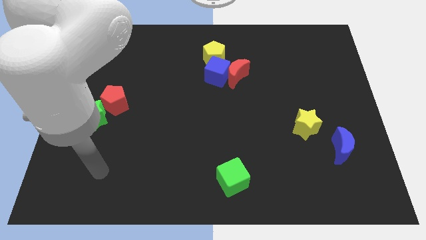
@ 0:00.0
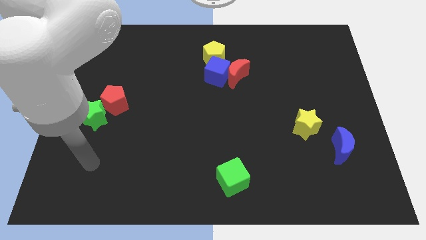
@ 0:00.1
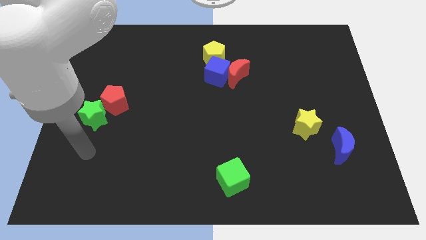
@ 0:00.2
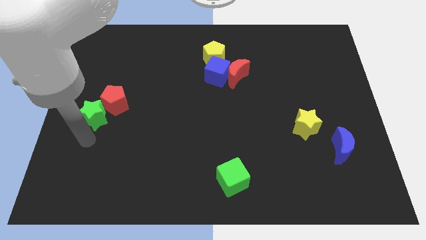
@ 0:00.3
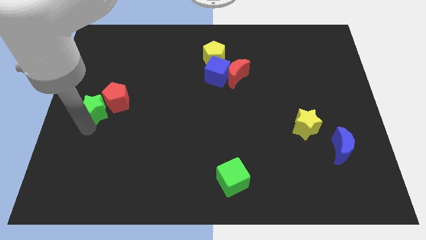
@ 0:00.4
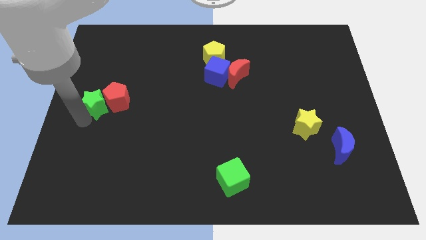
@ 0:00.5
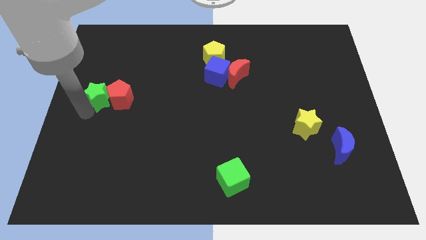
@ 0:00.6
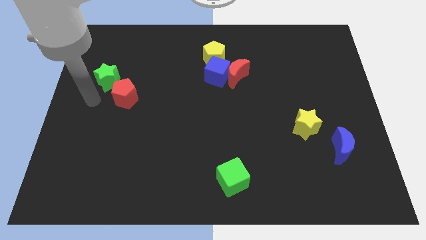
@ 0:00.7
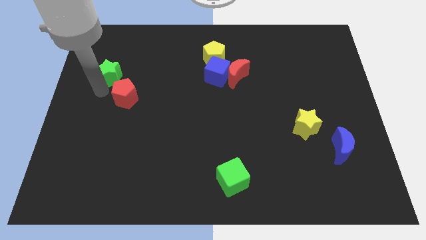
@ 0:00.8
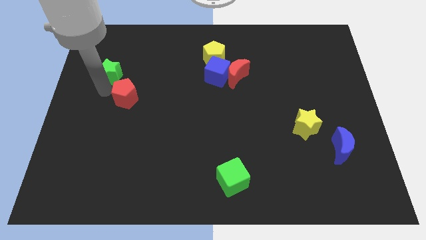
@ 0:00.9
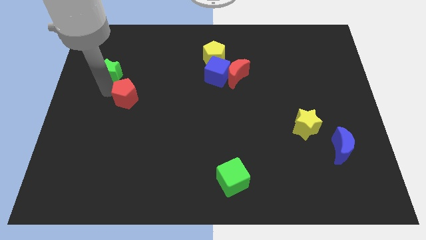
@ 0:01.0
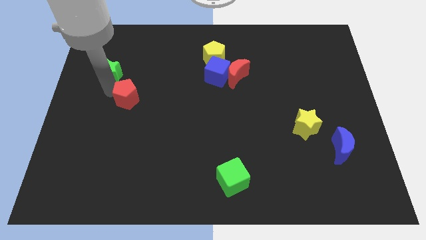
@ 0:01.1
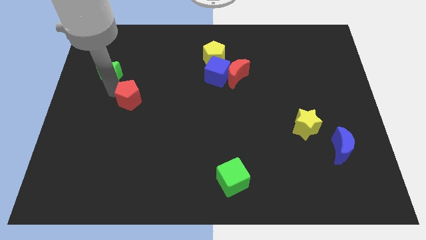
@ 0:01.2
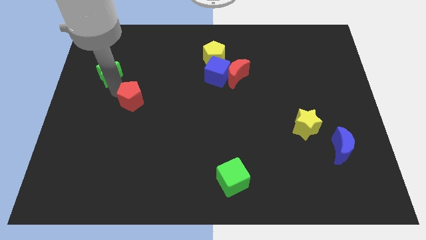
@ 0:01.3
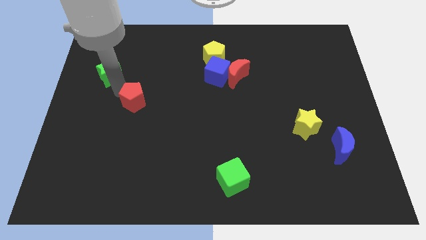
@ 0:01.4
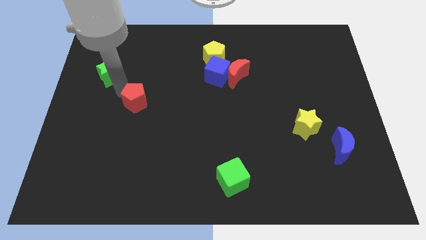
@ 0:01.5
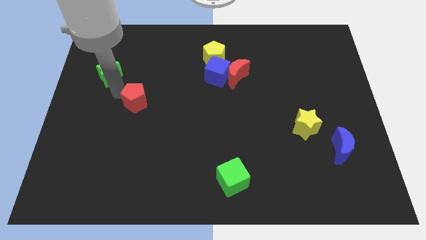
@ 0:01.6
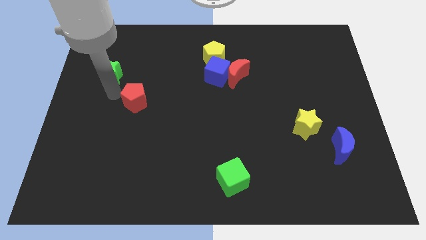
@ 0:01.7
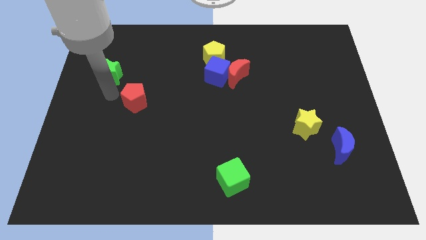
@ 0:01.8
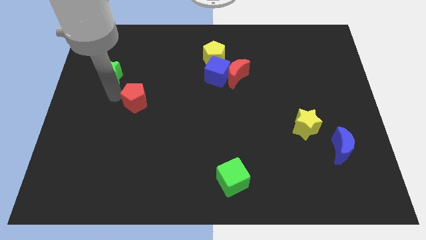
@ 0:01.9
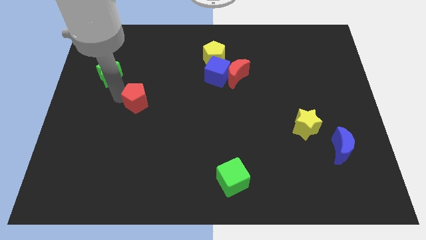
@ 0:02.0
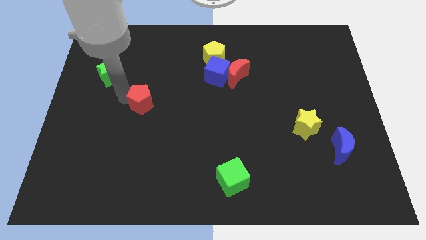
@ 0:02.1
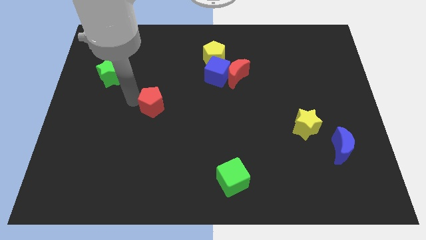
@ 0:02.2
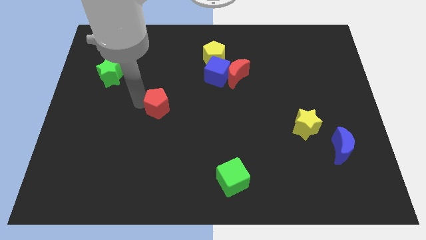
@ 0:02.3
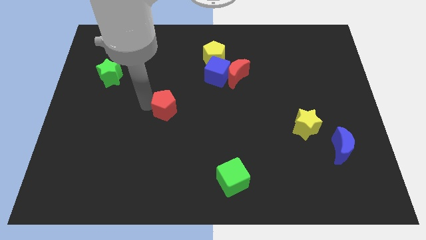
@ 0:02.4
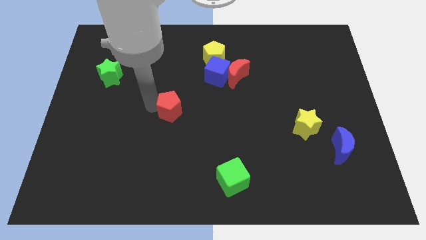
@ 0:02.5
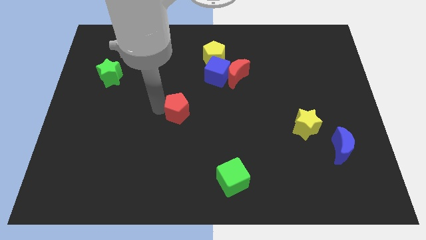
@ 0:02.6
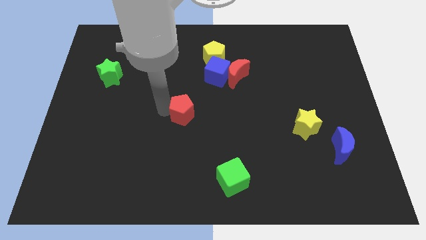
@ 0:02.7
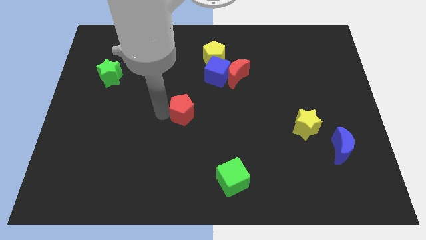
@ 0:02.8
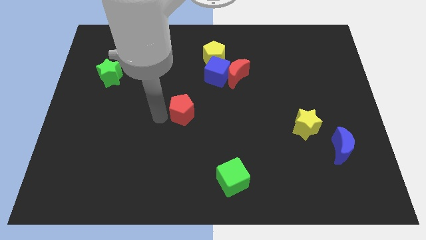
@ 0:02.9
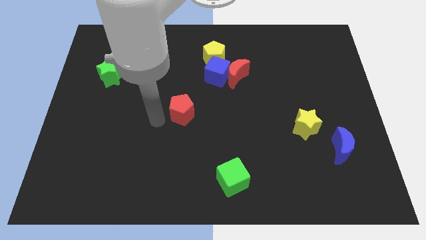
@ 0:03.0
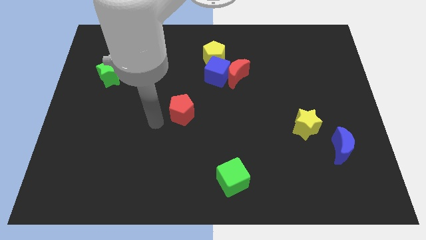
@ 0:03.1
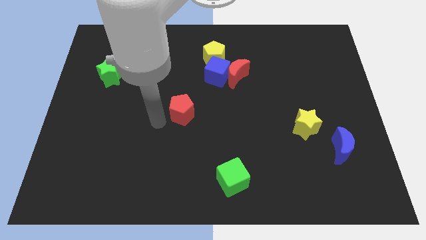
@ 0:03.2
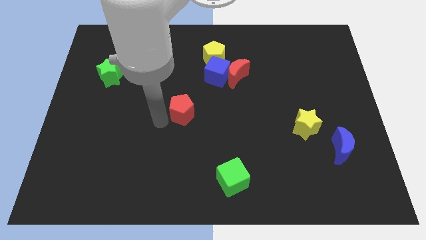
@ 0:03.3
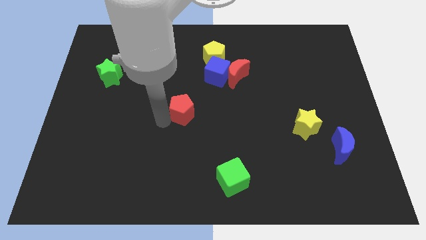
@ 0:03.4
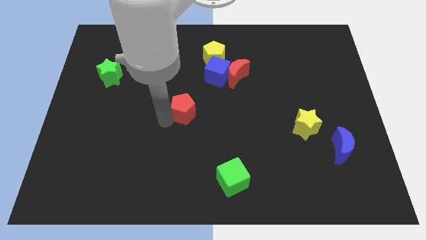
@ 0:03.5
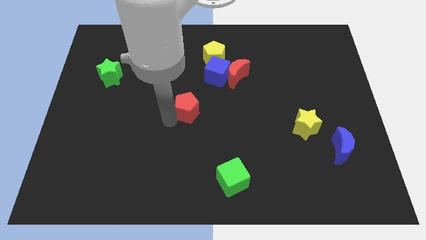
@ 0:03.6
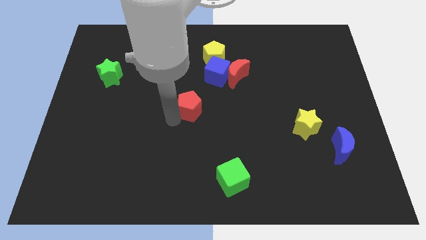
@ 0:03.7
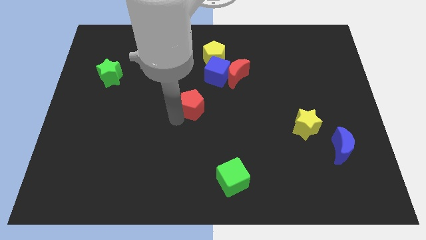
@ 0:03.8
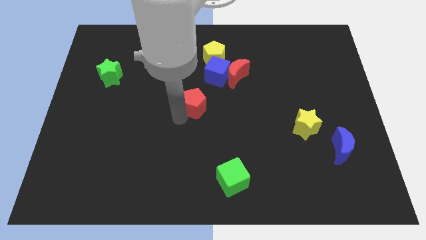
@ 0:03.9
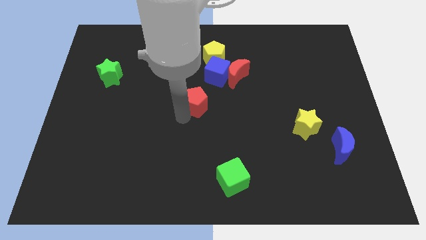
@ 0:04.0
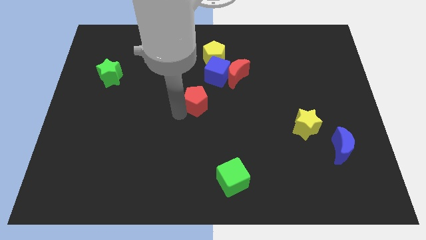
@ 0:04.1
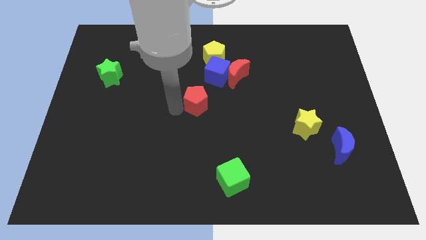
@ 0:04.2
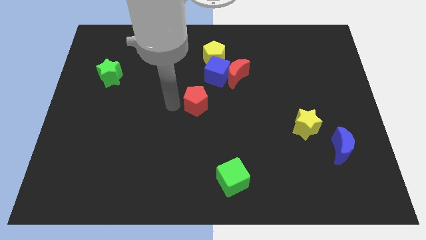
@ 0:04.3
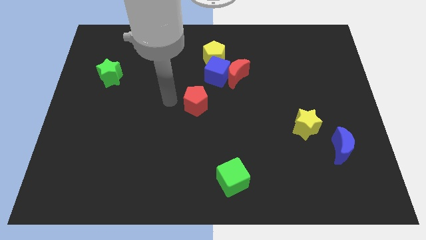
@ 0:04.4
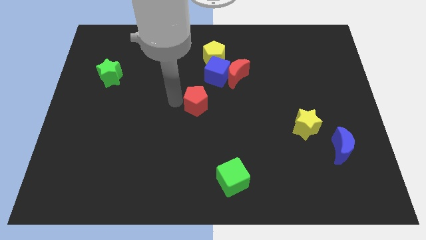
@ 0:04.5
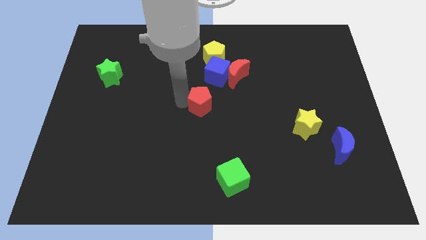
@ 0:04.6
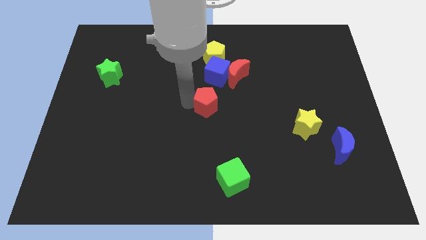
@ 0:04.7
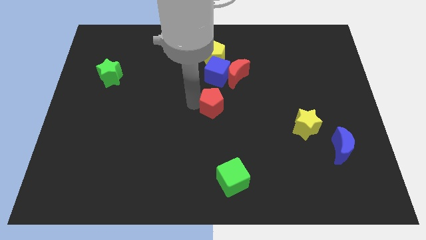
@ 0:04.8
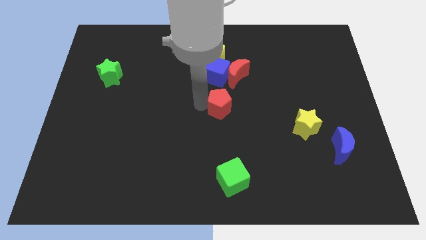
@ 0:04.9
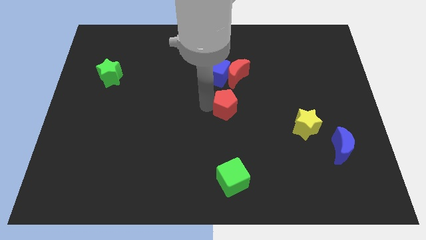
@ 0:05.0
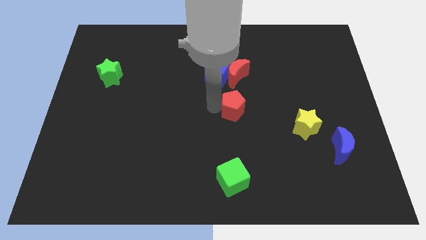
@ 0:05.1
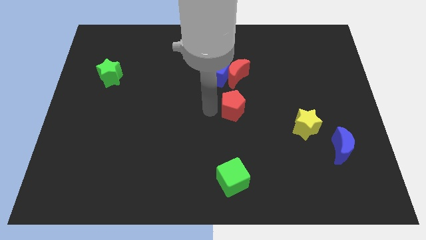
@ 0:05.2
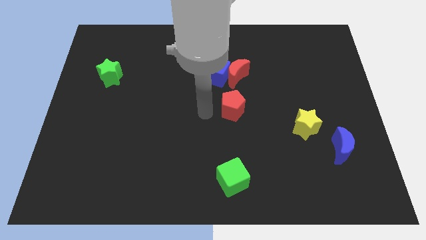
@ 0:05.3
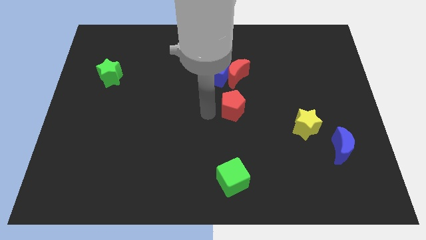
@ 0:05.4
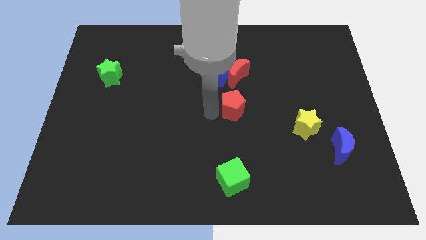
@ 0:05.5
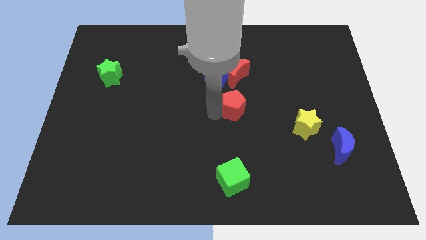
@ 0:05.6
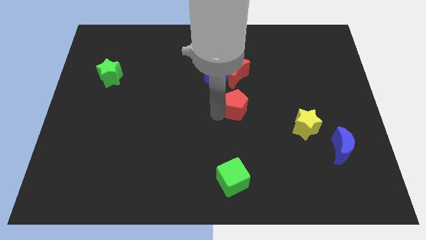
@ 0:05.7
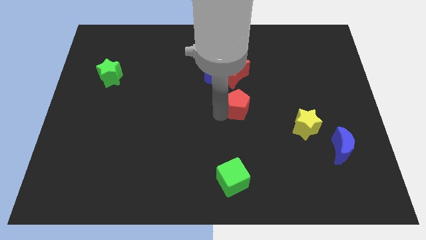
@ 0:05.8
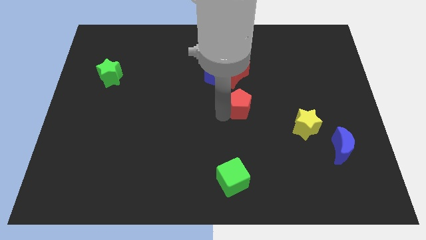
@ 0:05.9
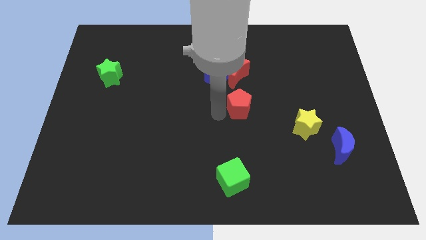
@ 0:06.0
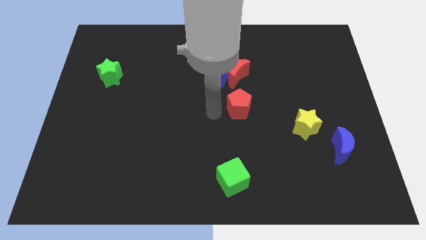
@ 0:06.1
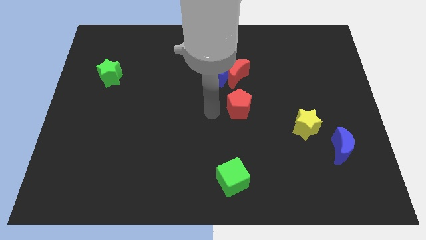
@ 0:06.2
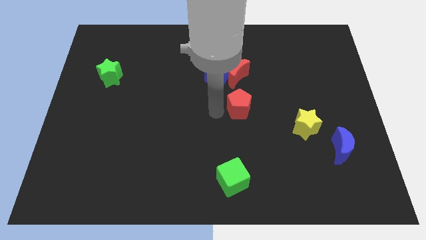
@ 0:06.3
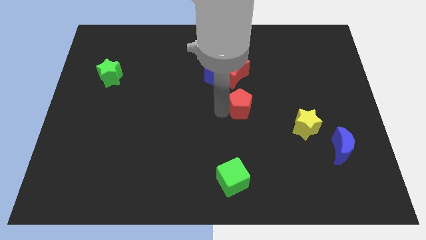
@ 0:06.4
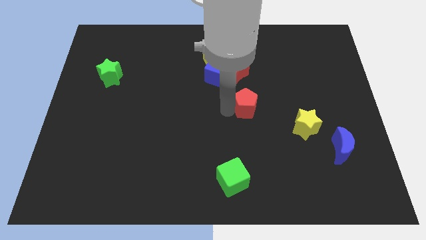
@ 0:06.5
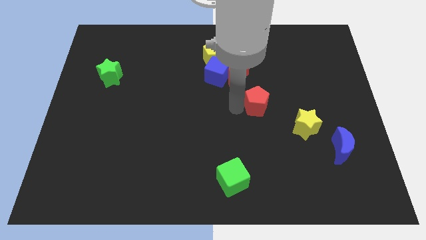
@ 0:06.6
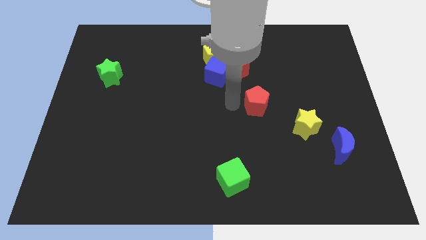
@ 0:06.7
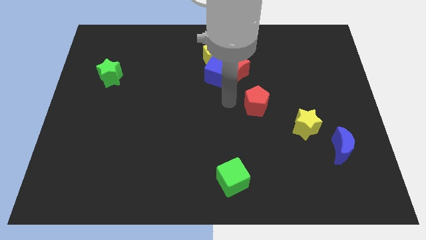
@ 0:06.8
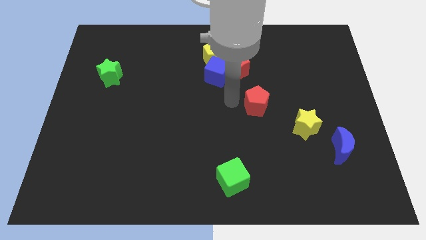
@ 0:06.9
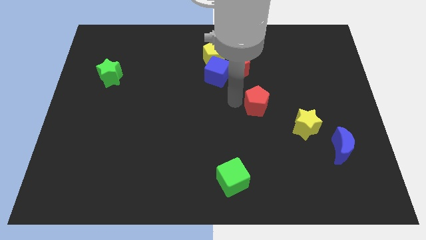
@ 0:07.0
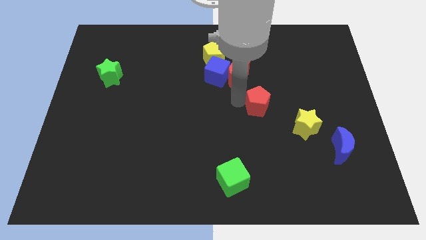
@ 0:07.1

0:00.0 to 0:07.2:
slide the red pentagon diagonally up and to the left of the yellow star

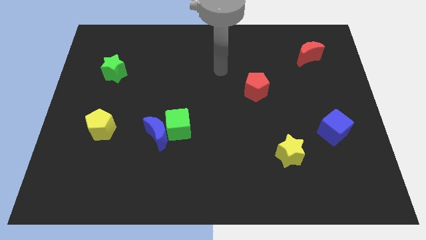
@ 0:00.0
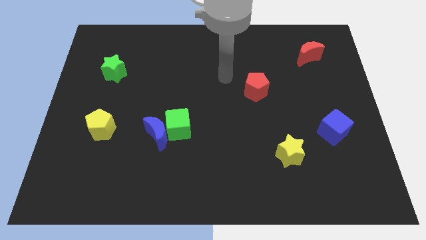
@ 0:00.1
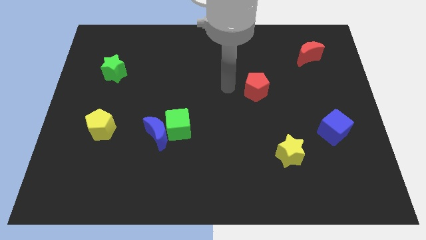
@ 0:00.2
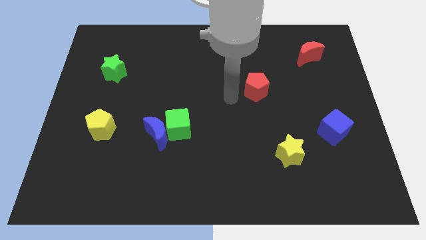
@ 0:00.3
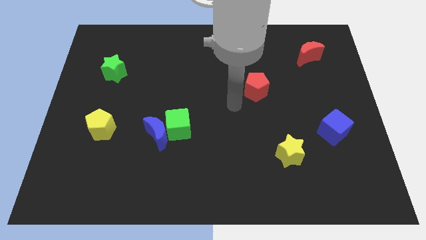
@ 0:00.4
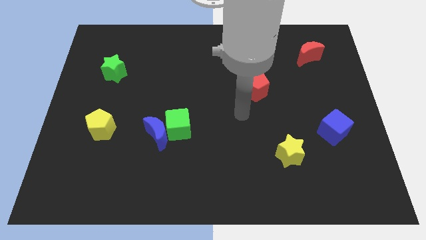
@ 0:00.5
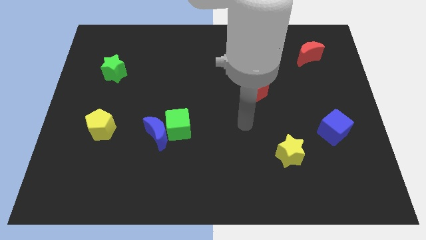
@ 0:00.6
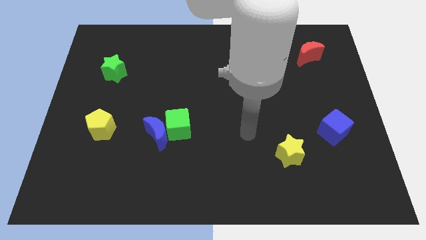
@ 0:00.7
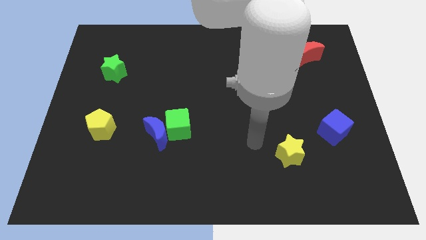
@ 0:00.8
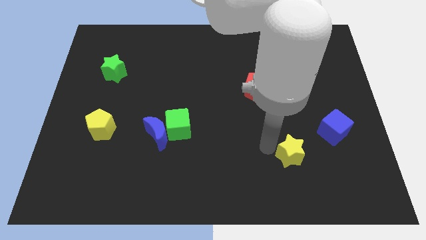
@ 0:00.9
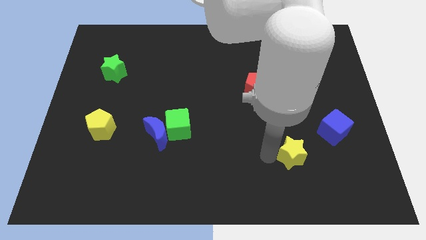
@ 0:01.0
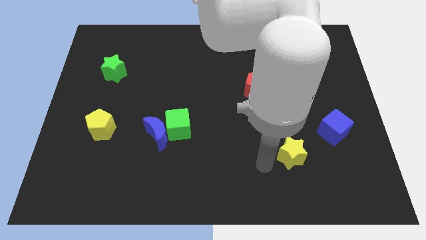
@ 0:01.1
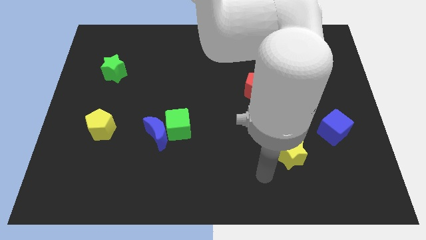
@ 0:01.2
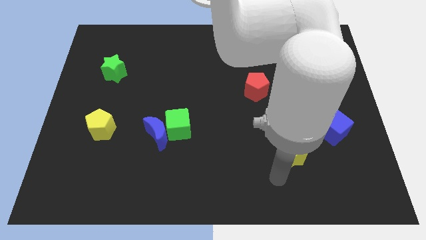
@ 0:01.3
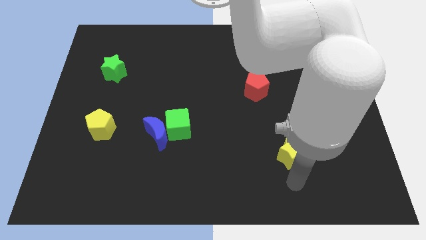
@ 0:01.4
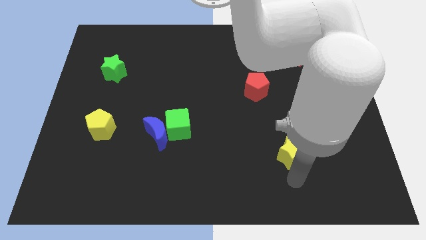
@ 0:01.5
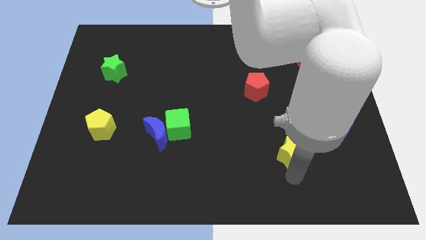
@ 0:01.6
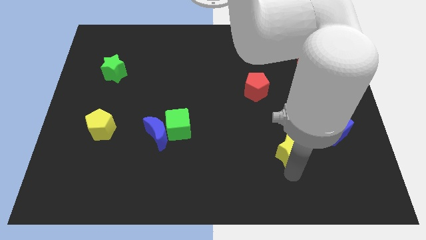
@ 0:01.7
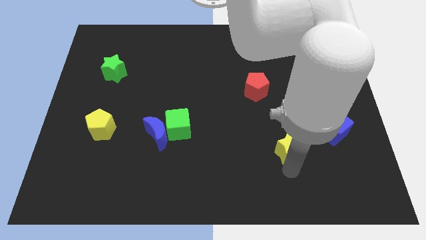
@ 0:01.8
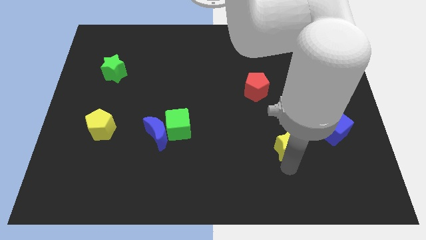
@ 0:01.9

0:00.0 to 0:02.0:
move the yellow star to the left side of the blue cube
